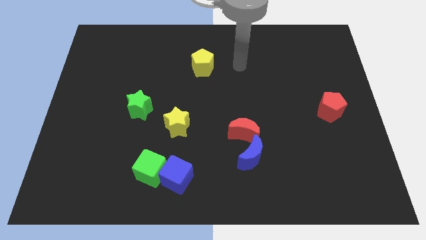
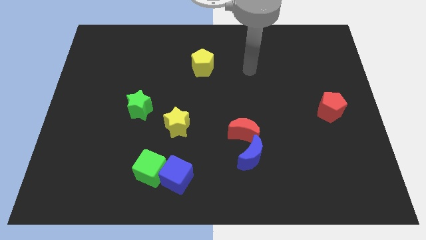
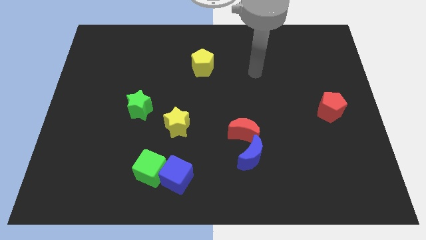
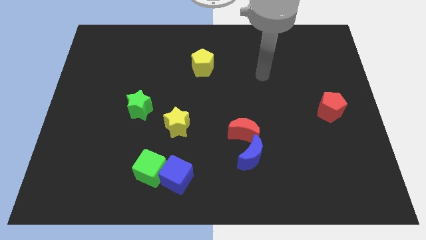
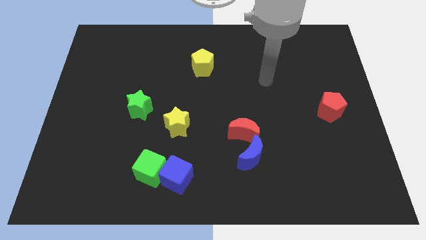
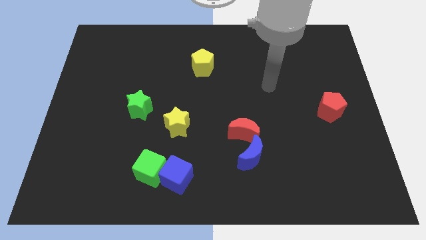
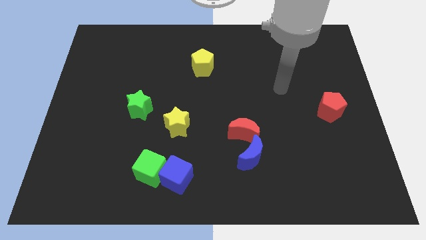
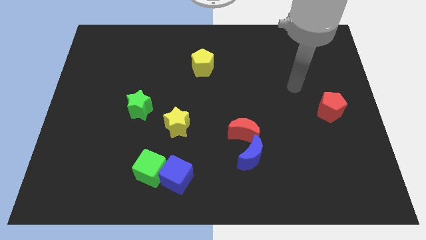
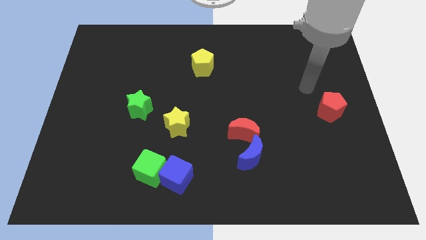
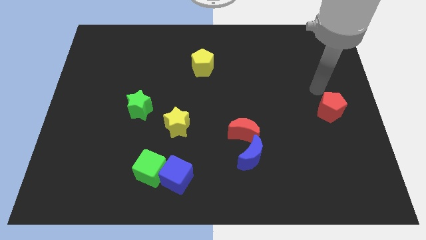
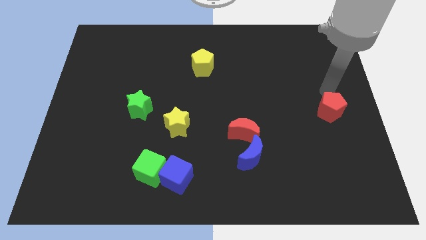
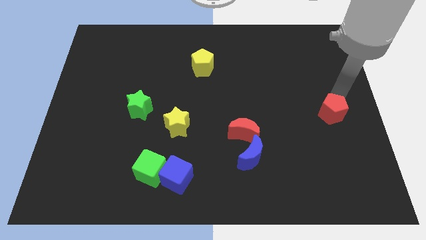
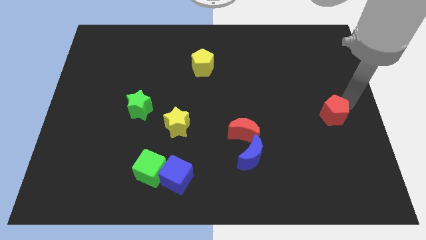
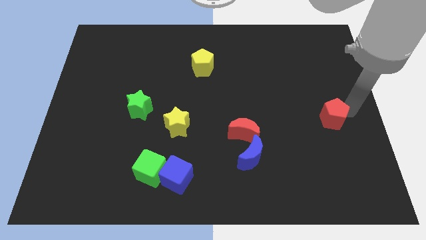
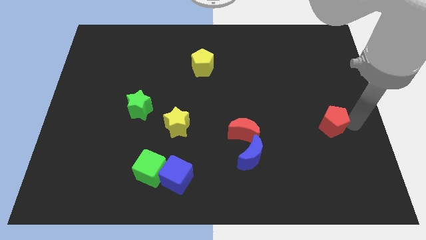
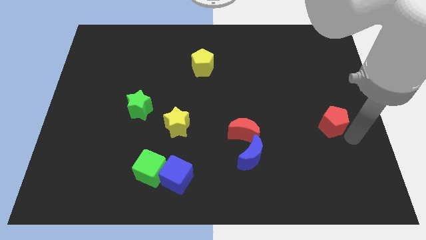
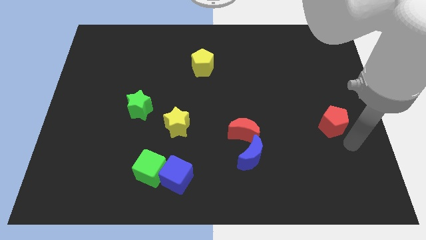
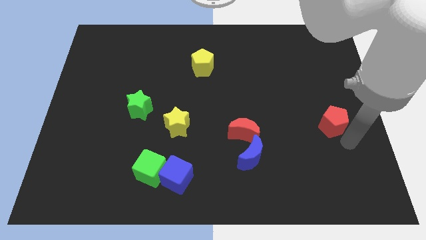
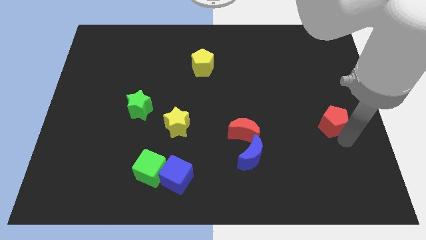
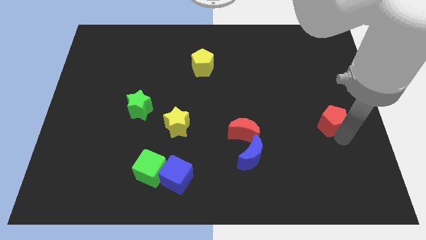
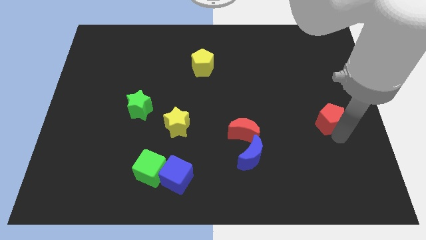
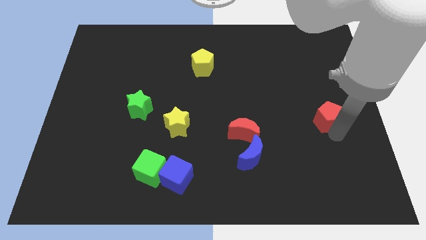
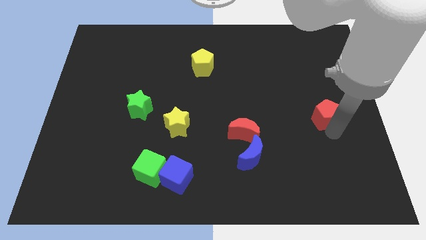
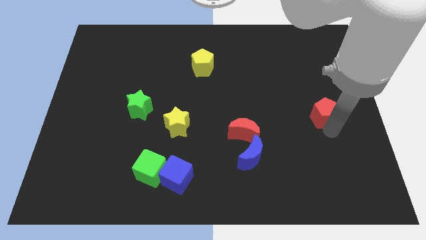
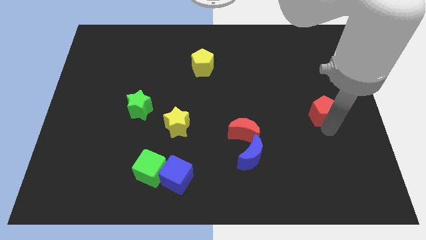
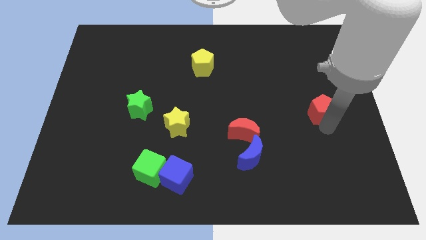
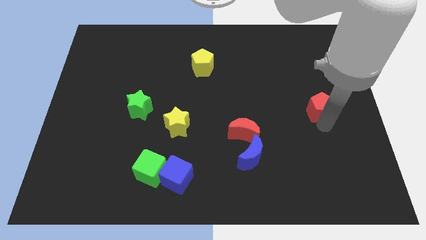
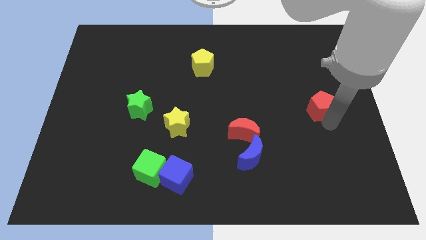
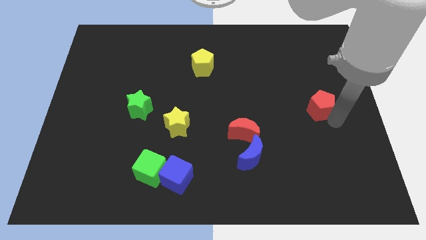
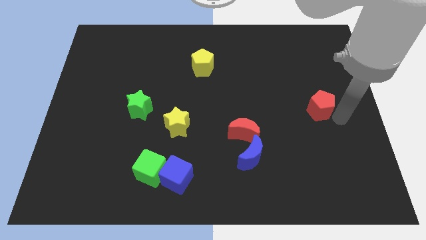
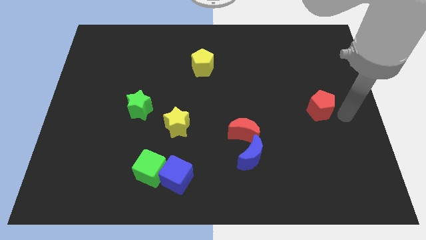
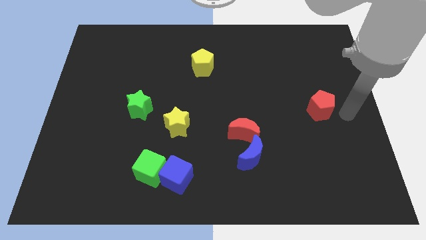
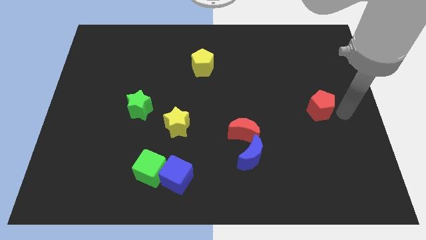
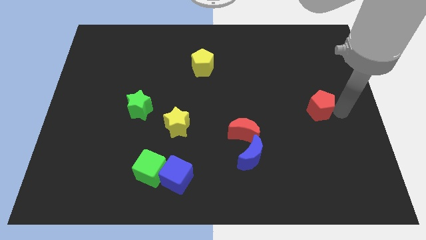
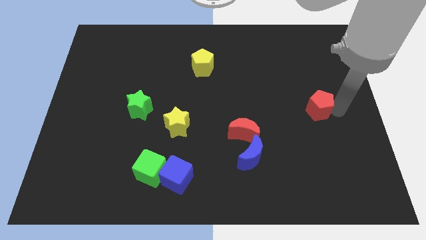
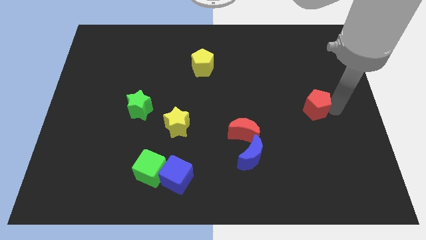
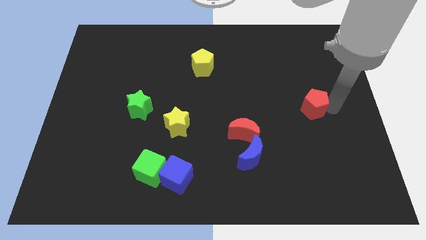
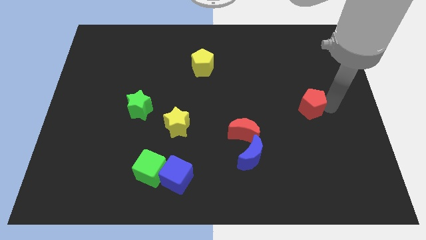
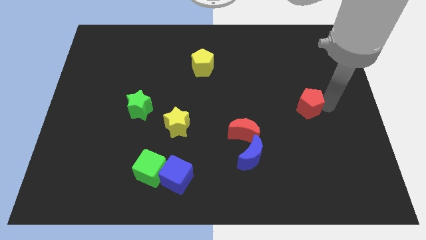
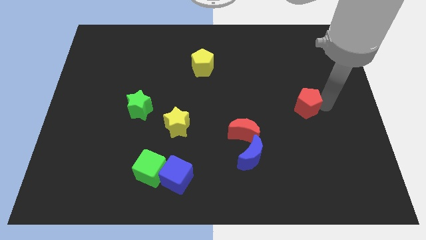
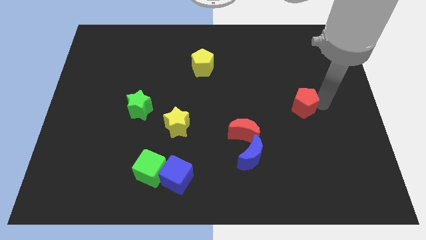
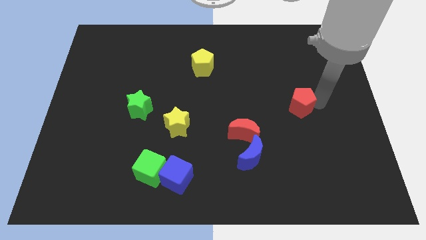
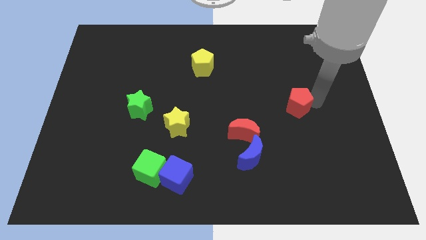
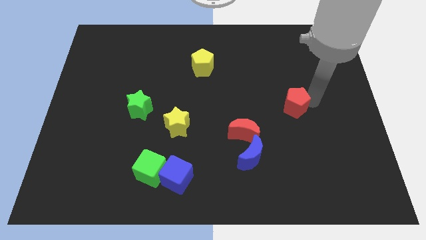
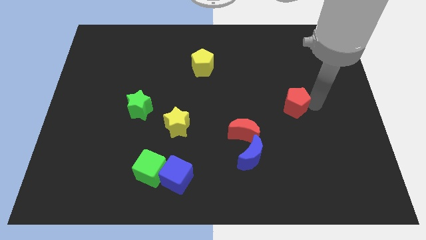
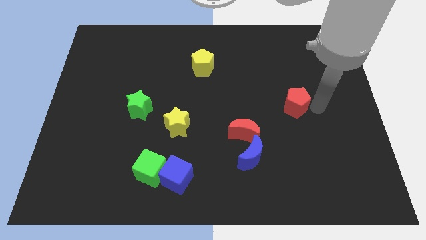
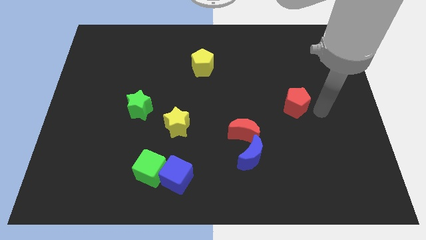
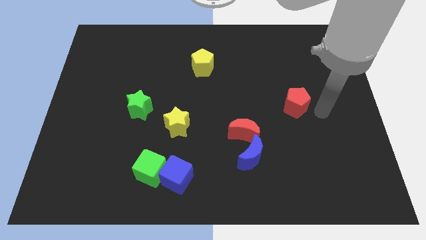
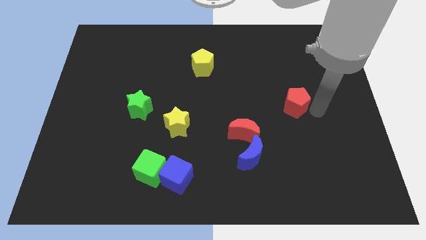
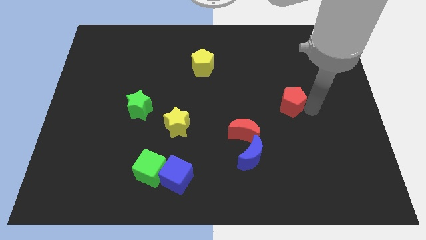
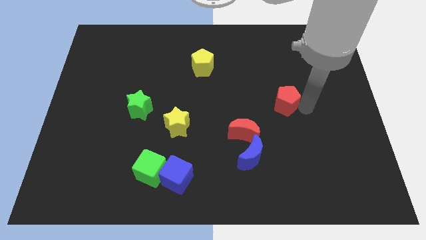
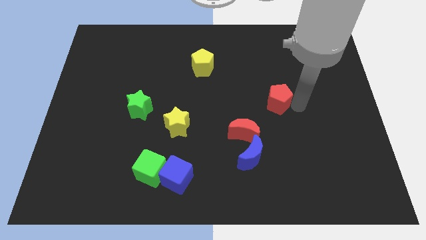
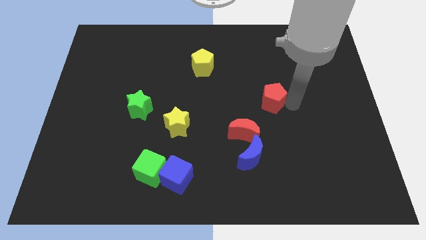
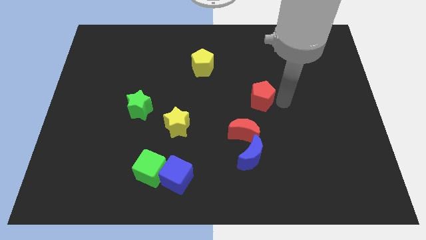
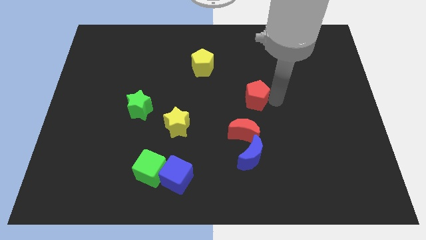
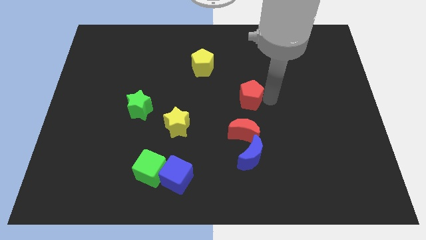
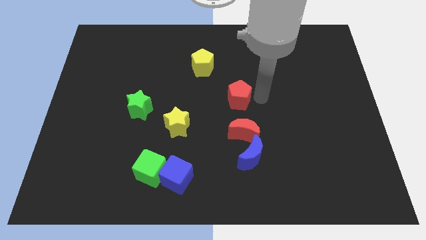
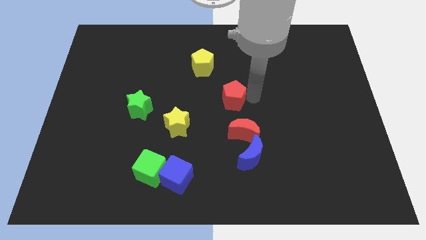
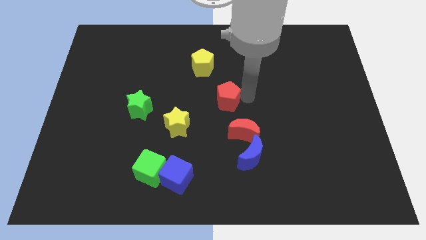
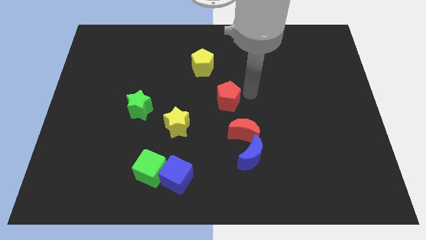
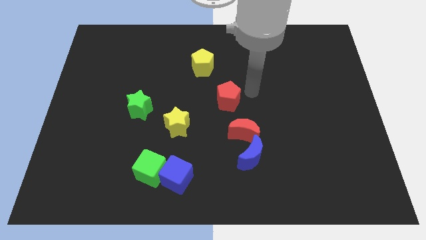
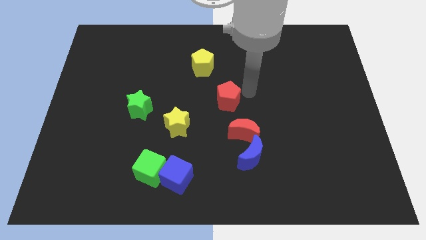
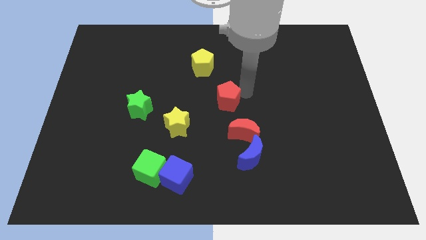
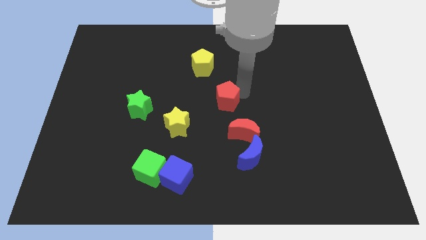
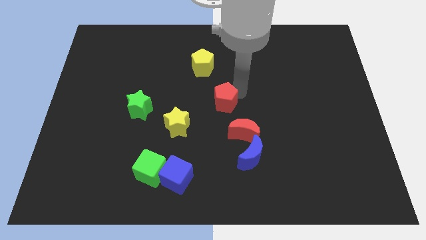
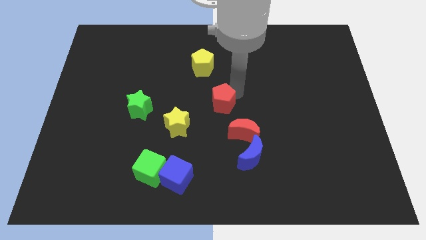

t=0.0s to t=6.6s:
push the red pentagon to the top right side of the yellow star

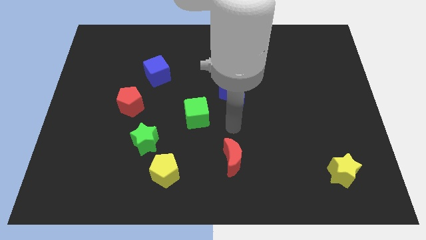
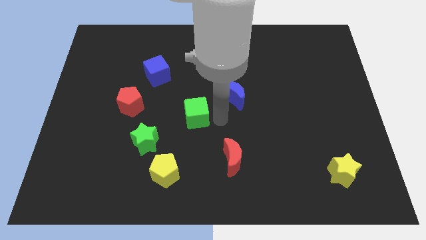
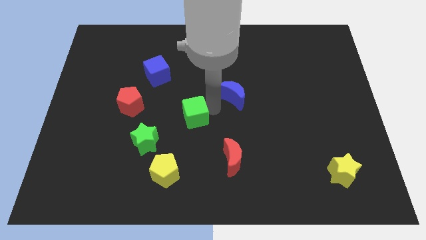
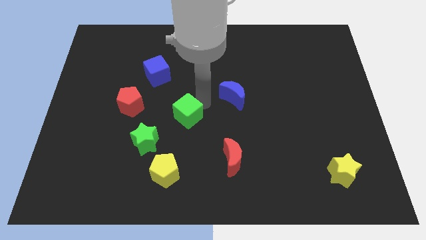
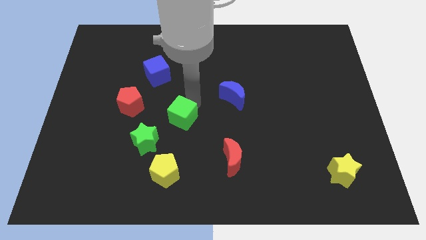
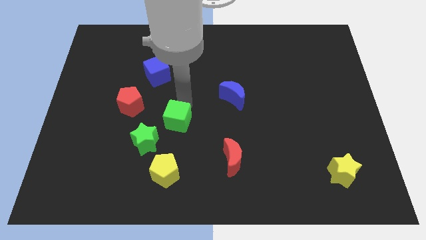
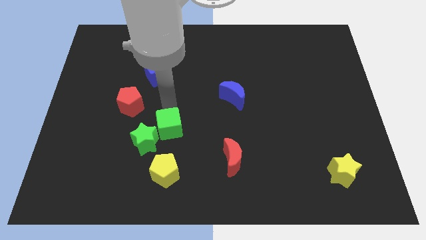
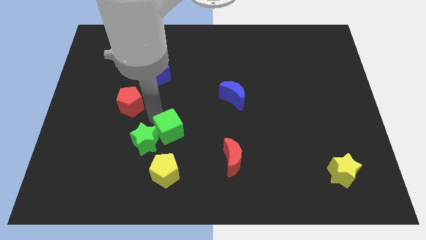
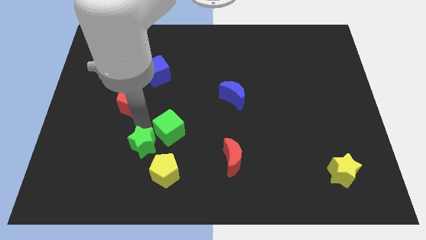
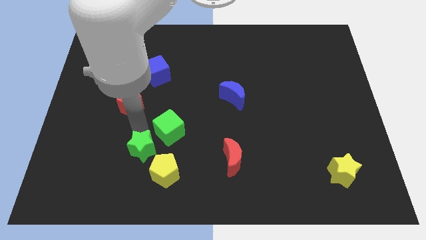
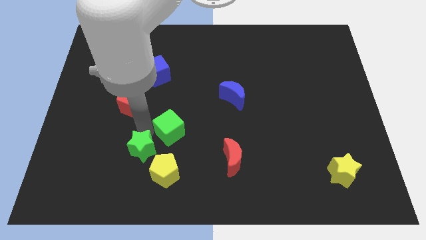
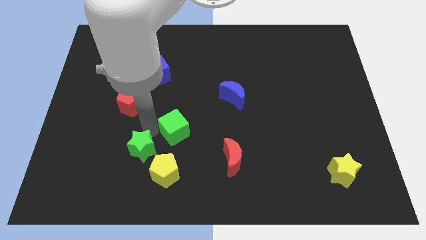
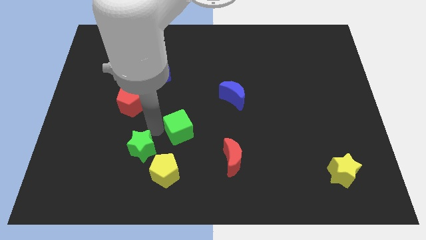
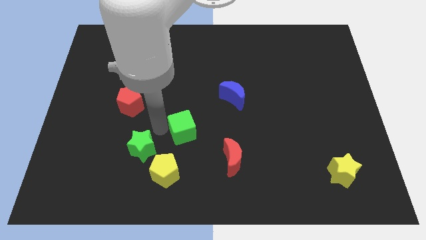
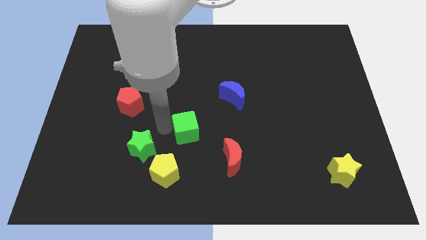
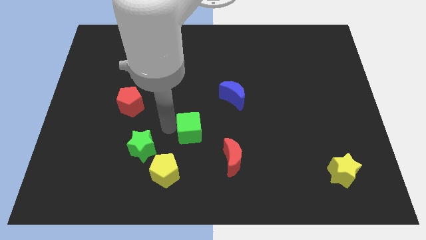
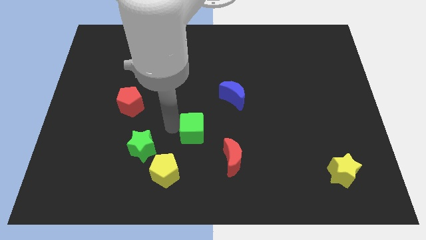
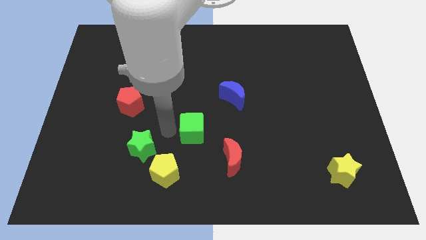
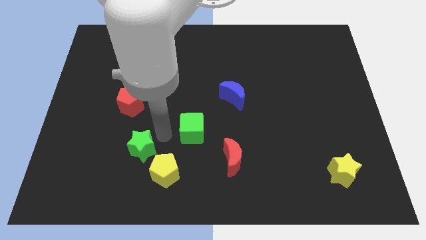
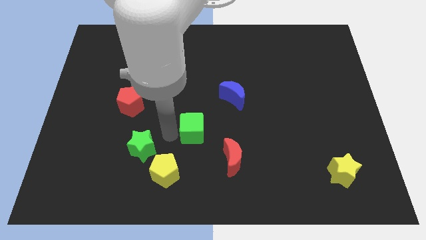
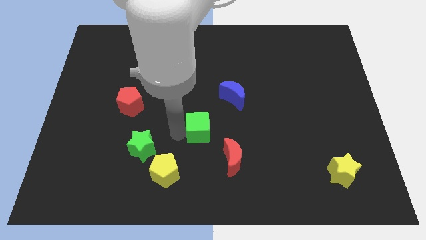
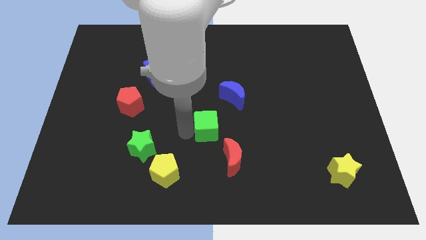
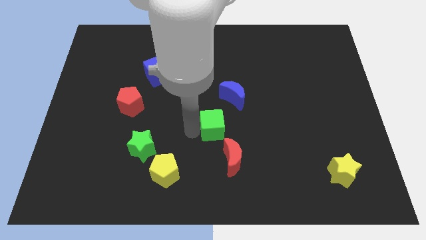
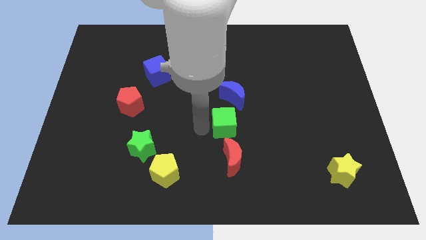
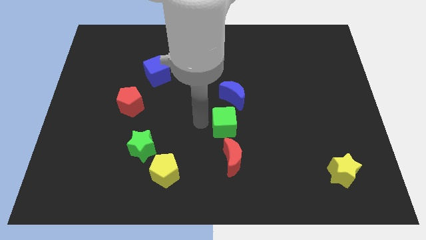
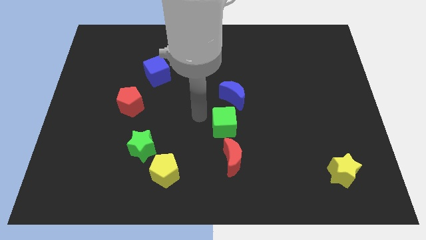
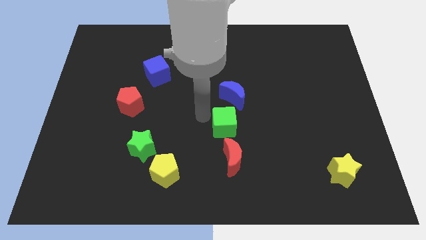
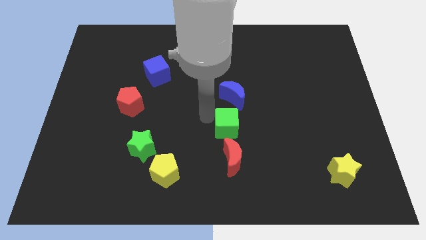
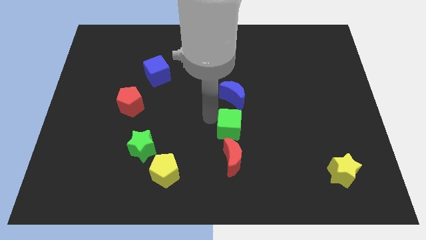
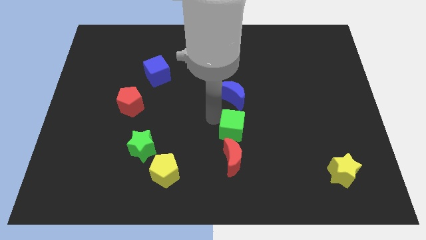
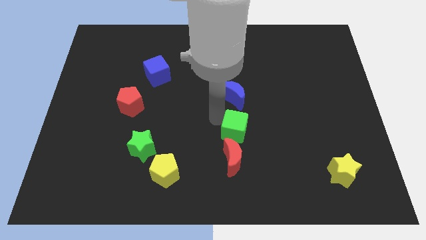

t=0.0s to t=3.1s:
move the green cube to the top right of the red moon
